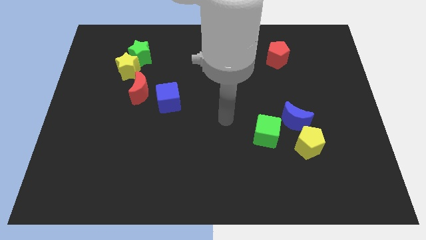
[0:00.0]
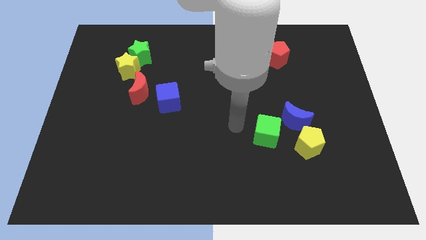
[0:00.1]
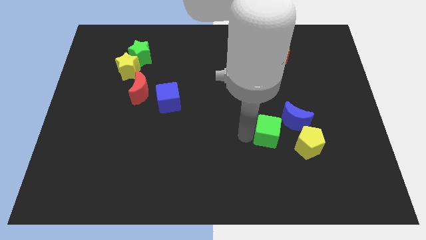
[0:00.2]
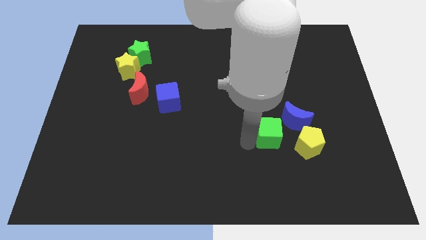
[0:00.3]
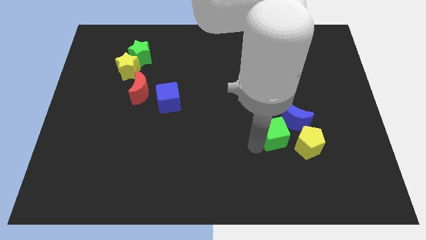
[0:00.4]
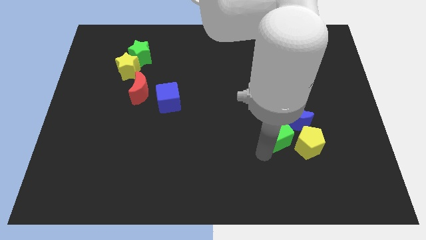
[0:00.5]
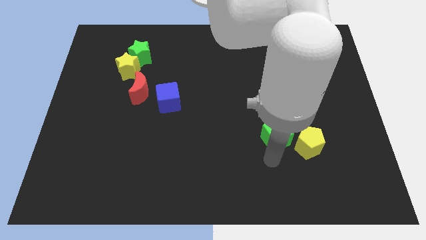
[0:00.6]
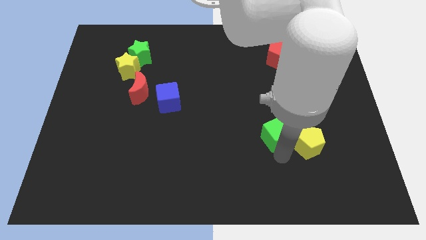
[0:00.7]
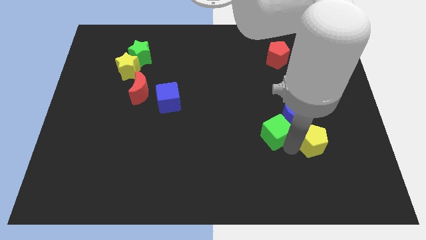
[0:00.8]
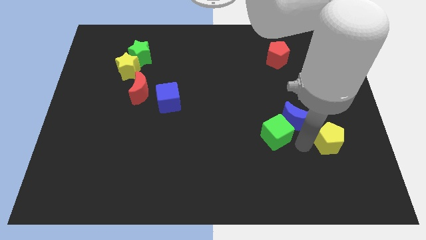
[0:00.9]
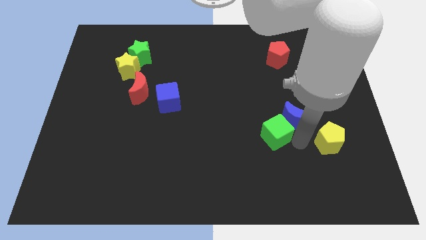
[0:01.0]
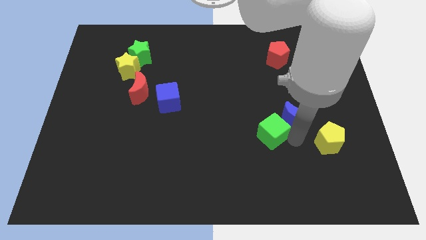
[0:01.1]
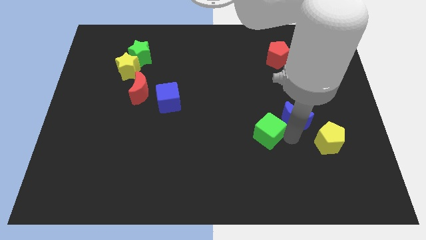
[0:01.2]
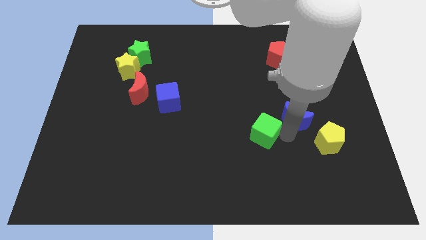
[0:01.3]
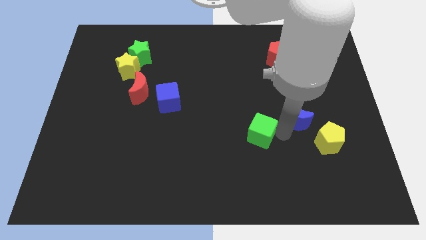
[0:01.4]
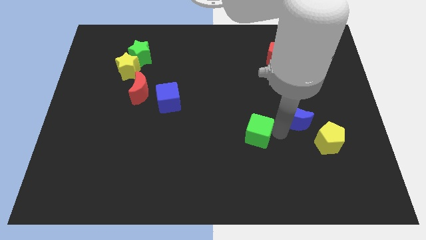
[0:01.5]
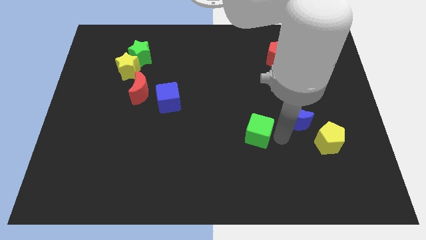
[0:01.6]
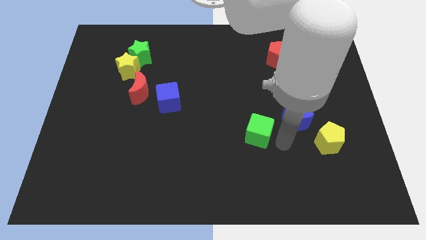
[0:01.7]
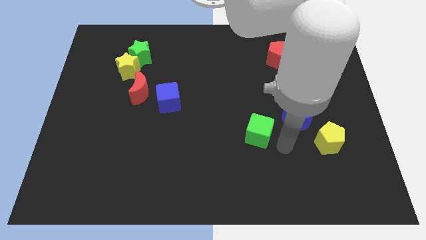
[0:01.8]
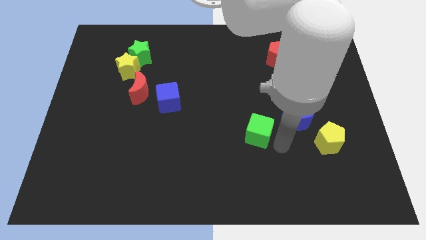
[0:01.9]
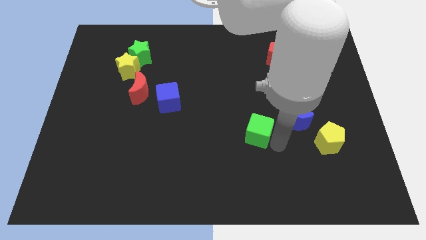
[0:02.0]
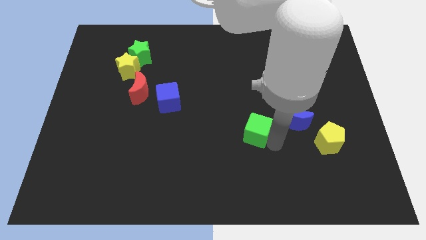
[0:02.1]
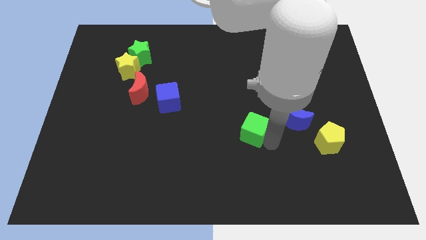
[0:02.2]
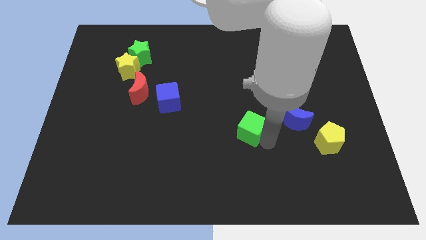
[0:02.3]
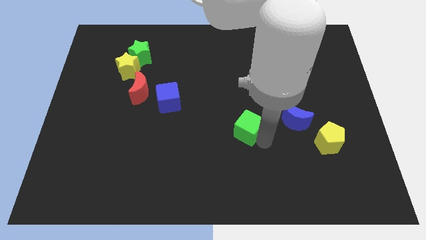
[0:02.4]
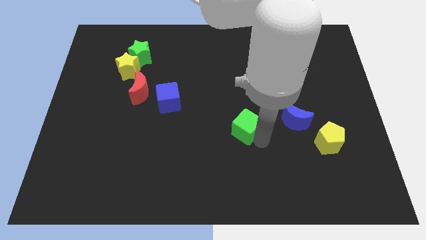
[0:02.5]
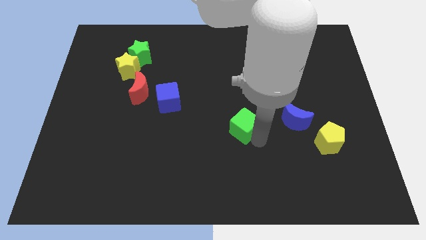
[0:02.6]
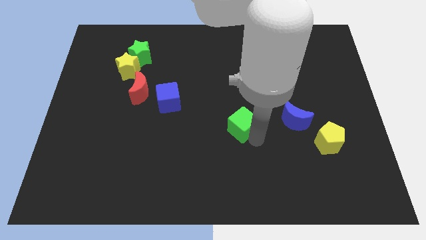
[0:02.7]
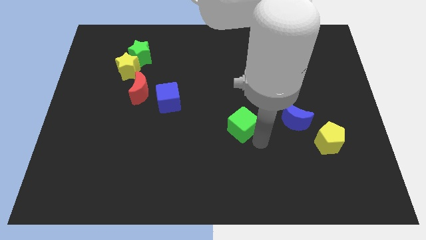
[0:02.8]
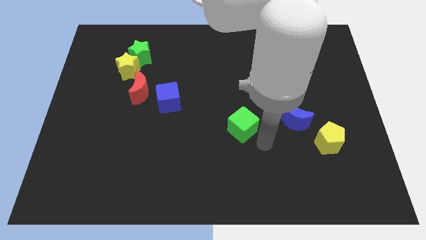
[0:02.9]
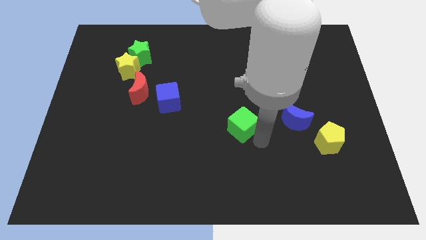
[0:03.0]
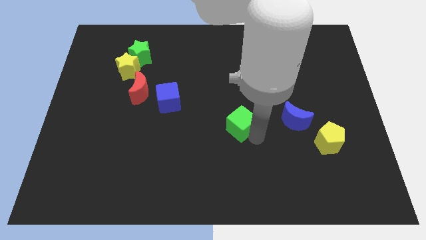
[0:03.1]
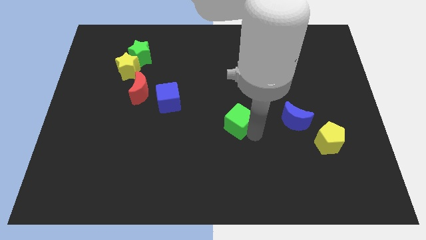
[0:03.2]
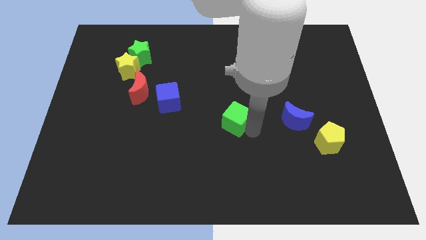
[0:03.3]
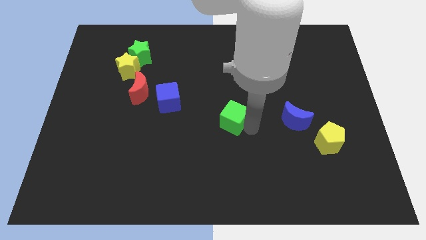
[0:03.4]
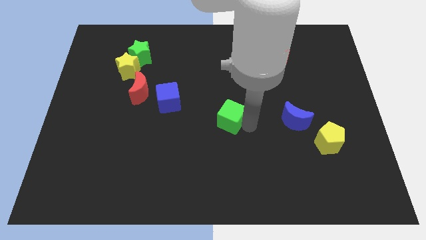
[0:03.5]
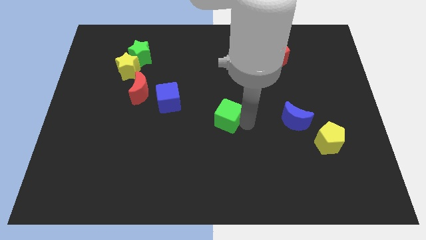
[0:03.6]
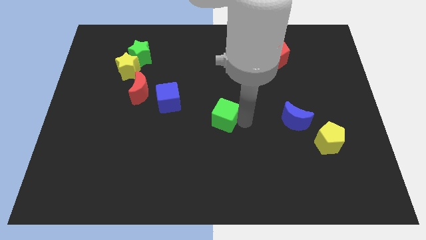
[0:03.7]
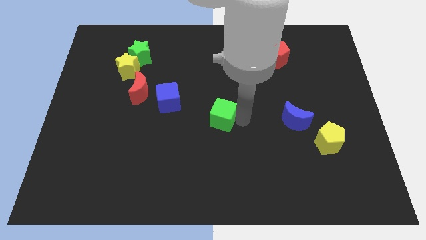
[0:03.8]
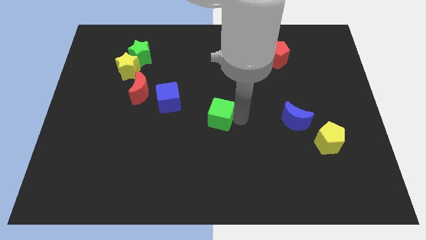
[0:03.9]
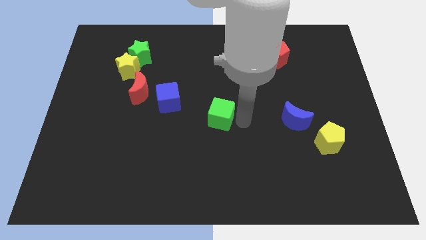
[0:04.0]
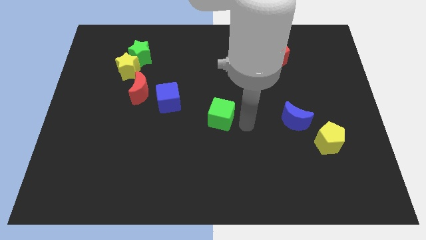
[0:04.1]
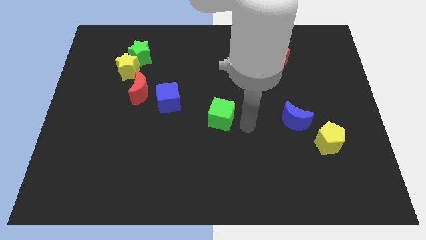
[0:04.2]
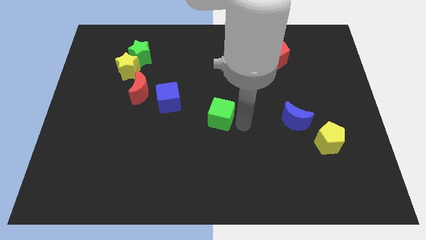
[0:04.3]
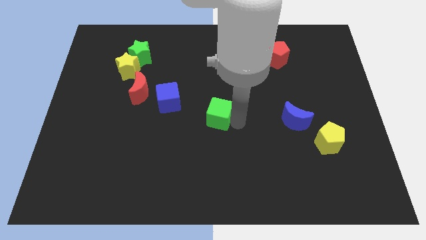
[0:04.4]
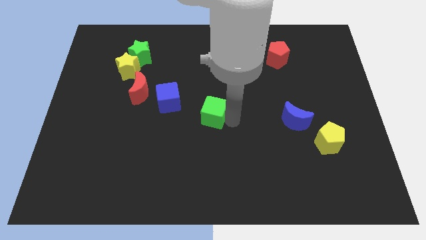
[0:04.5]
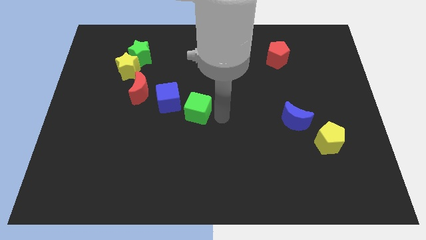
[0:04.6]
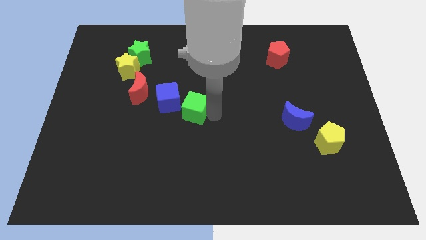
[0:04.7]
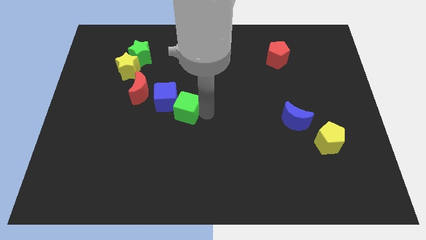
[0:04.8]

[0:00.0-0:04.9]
slide the green cube towards the blue cube

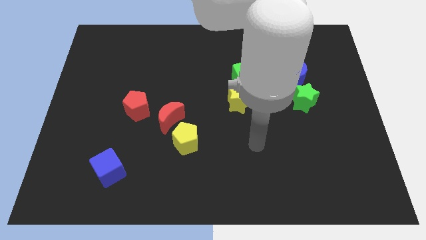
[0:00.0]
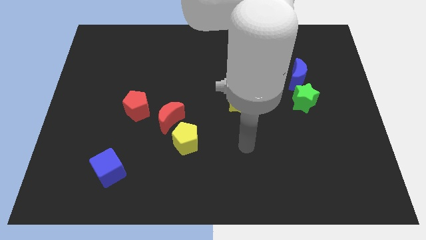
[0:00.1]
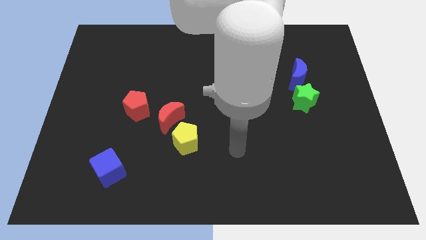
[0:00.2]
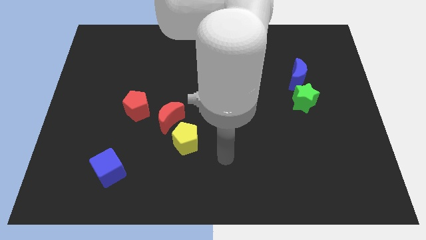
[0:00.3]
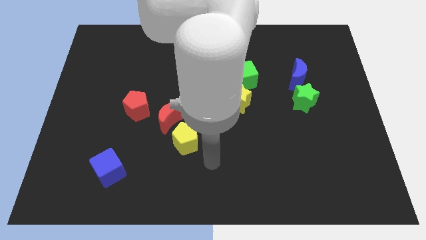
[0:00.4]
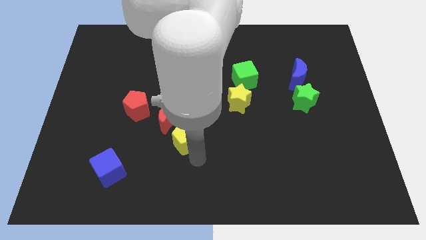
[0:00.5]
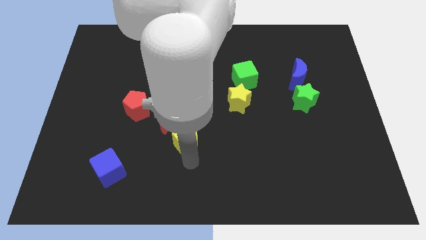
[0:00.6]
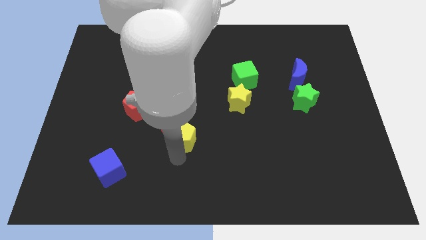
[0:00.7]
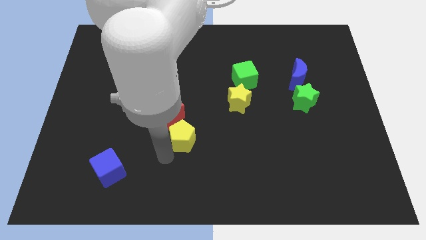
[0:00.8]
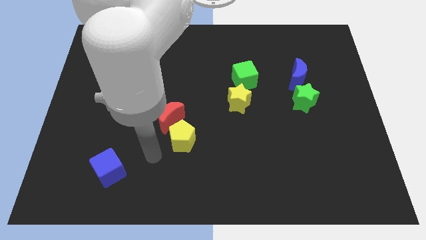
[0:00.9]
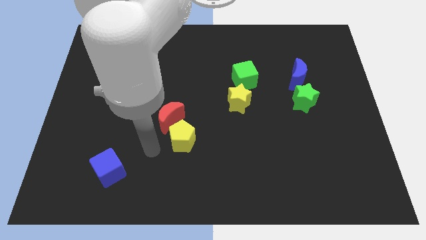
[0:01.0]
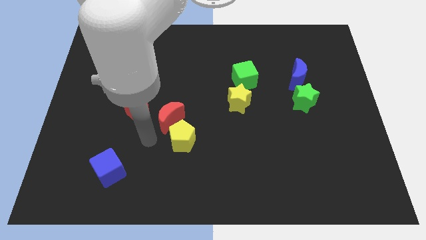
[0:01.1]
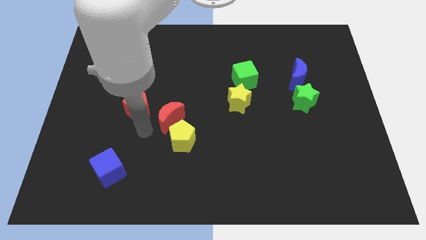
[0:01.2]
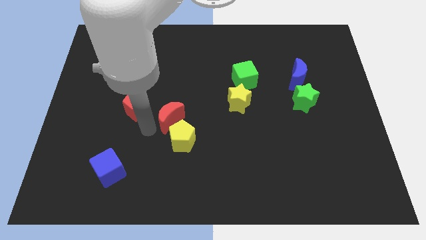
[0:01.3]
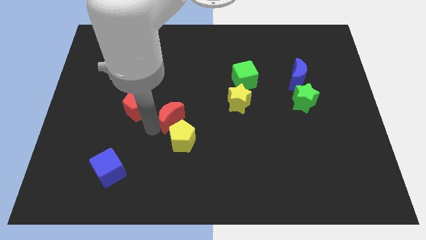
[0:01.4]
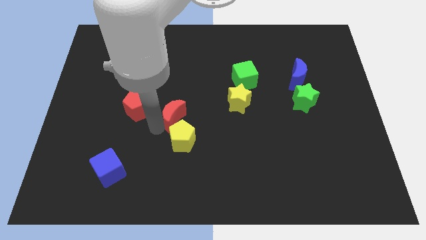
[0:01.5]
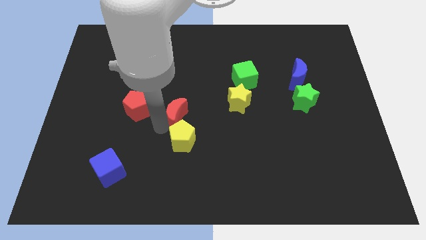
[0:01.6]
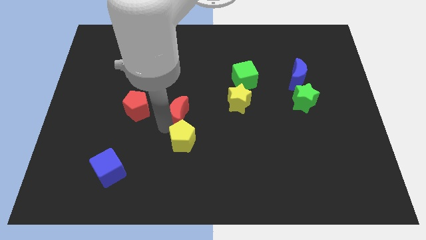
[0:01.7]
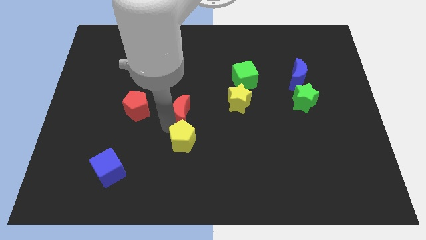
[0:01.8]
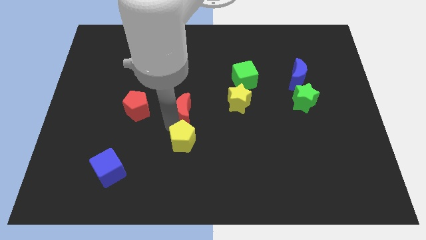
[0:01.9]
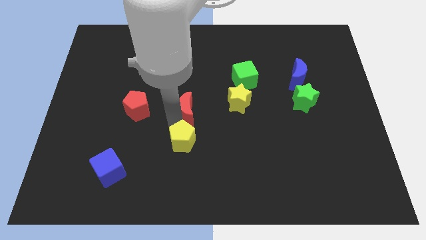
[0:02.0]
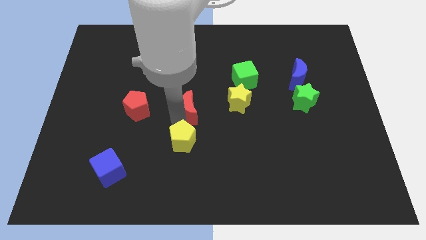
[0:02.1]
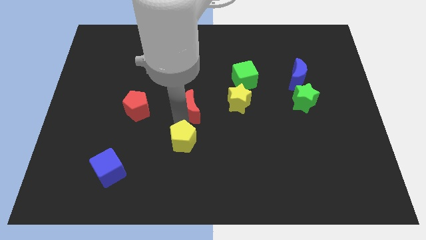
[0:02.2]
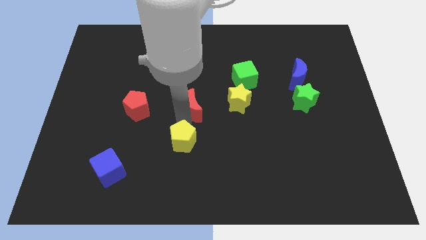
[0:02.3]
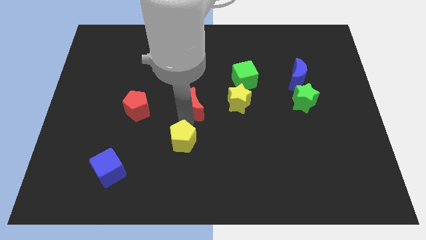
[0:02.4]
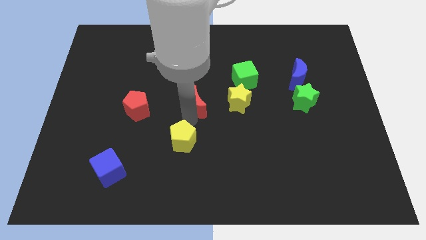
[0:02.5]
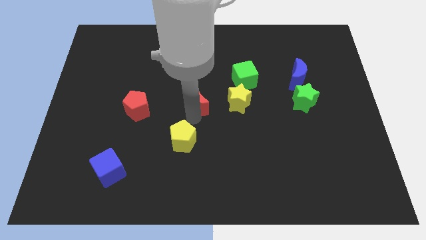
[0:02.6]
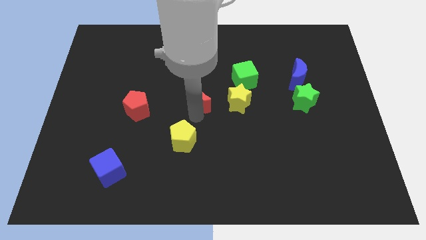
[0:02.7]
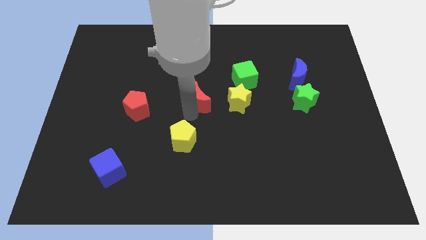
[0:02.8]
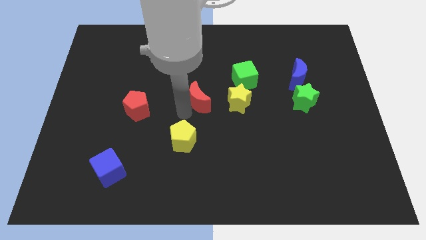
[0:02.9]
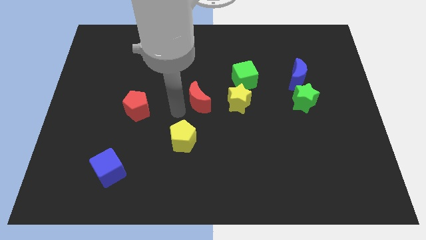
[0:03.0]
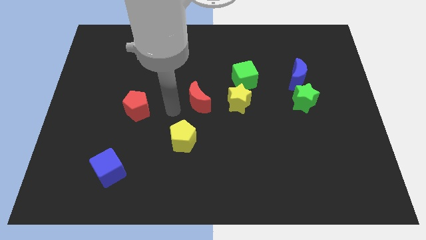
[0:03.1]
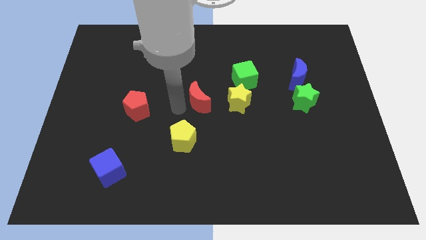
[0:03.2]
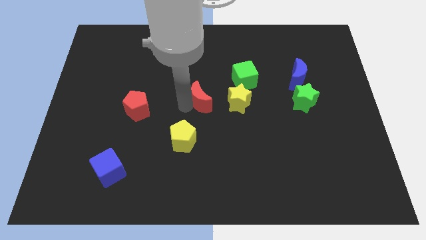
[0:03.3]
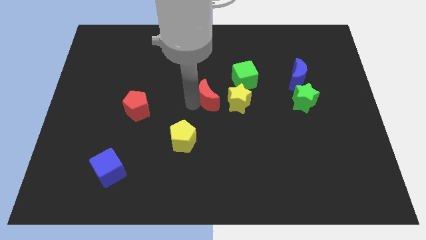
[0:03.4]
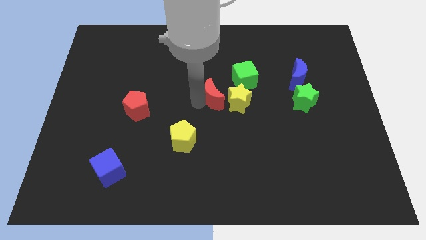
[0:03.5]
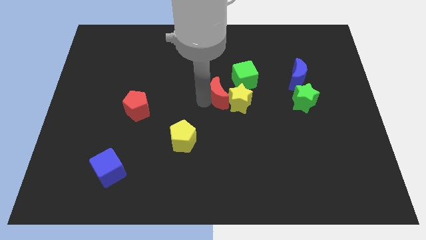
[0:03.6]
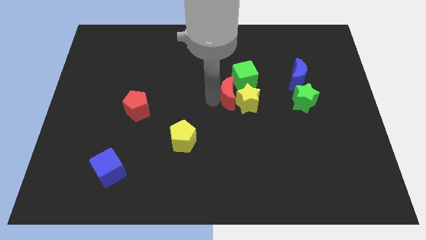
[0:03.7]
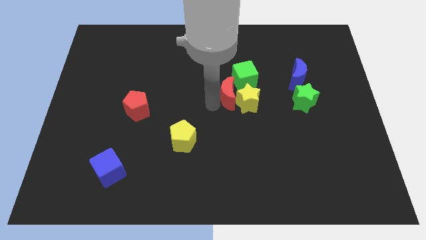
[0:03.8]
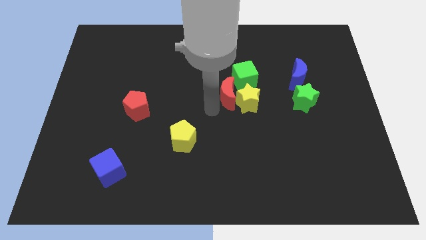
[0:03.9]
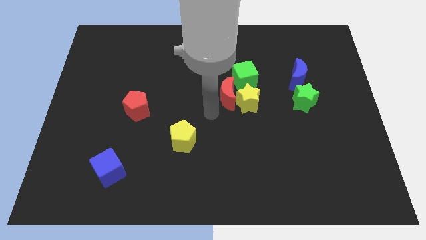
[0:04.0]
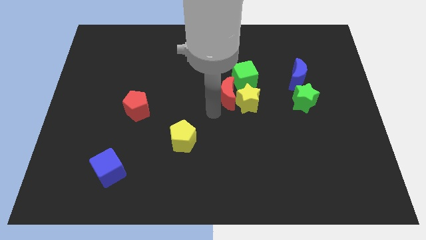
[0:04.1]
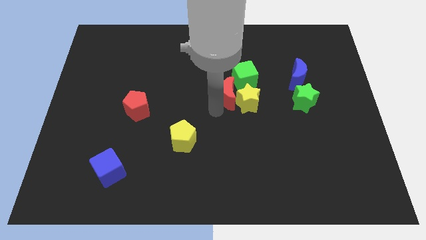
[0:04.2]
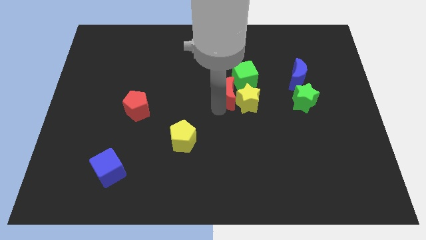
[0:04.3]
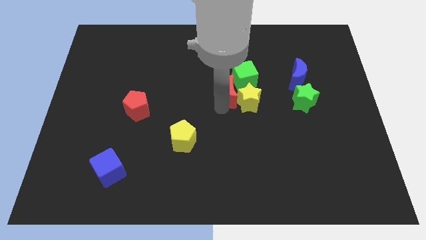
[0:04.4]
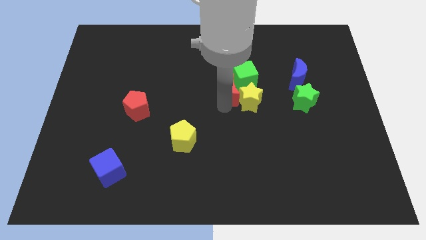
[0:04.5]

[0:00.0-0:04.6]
slide the red moon to the green cube
